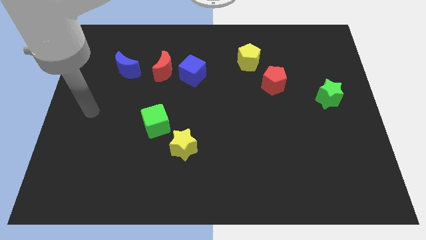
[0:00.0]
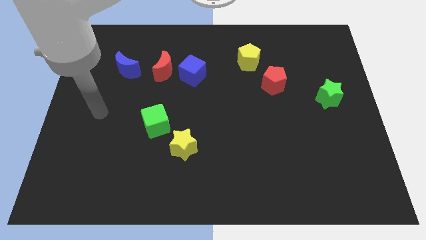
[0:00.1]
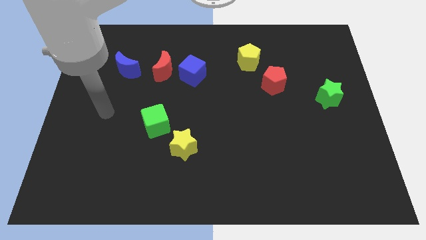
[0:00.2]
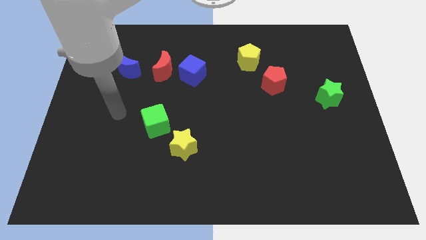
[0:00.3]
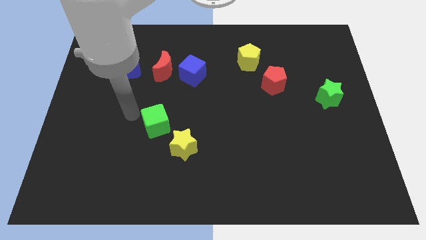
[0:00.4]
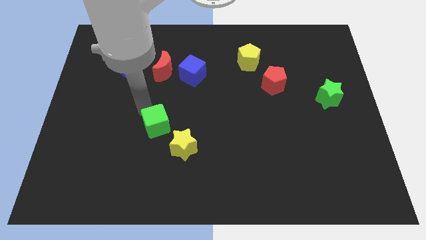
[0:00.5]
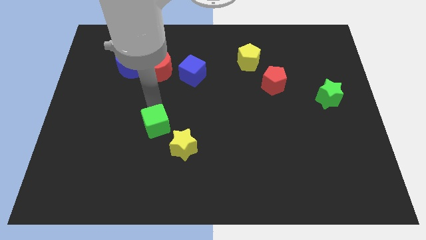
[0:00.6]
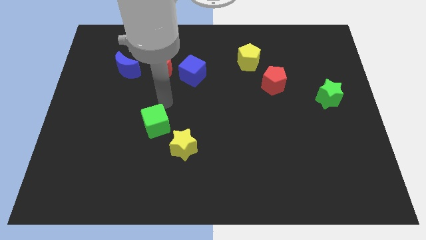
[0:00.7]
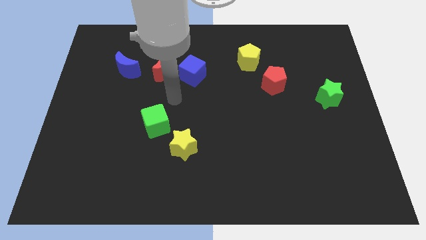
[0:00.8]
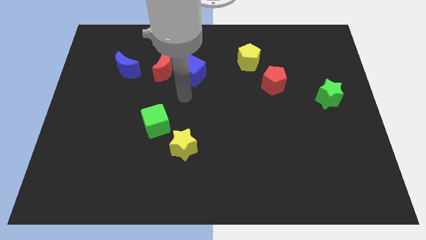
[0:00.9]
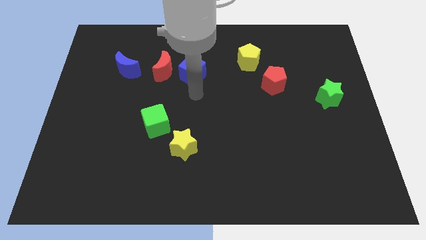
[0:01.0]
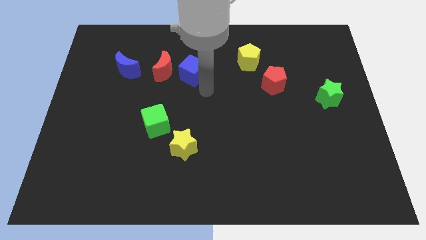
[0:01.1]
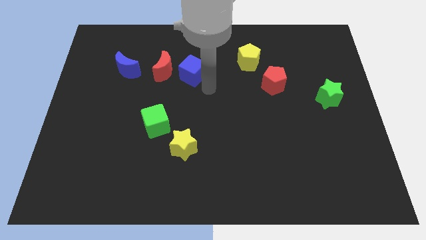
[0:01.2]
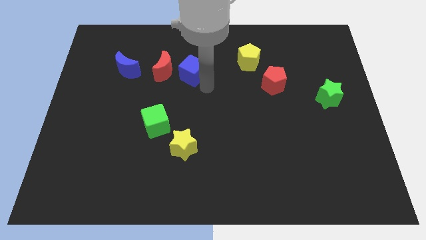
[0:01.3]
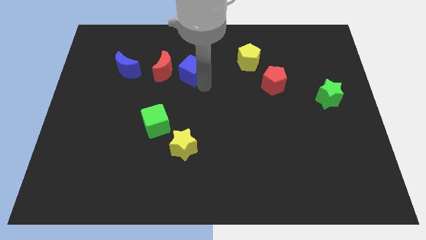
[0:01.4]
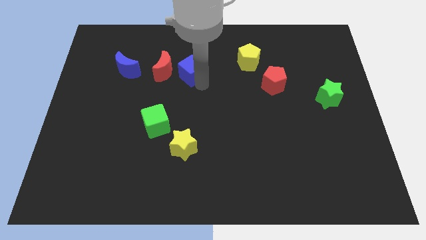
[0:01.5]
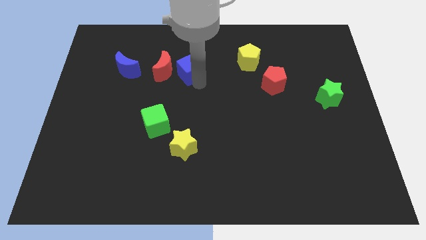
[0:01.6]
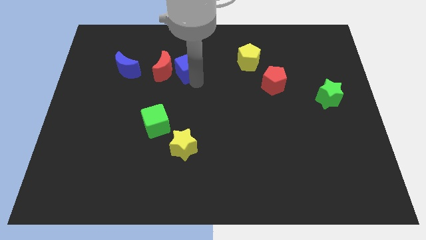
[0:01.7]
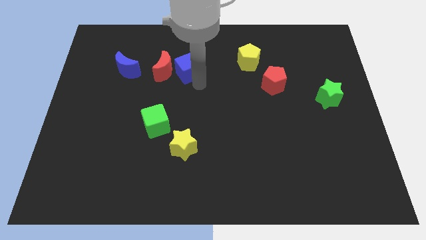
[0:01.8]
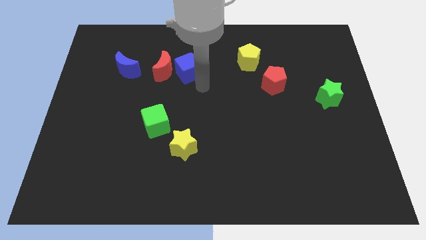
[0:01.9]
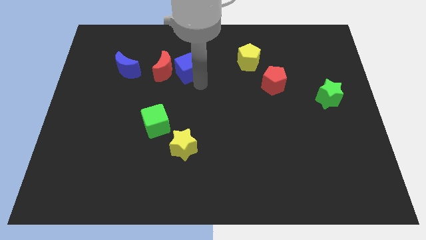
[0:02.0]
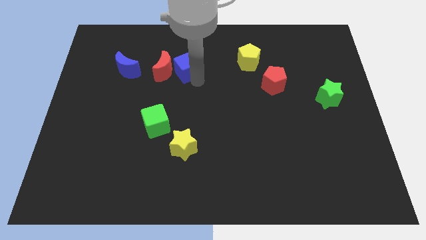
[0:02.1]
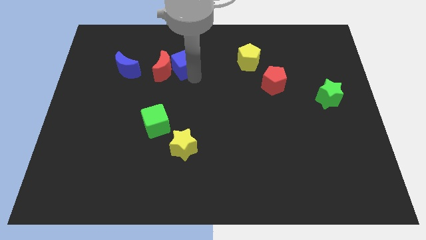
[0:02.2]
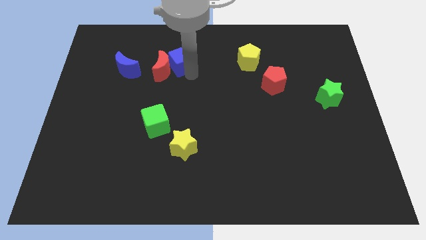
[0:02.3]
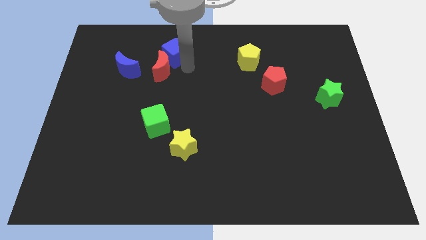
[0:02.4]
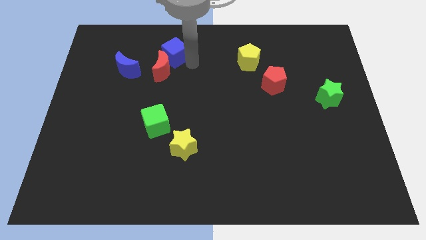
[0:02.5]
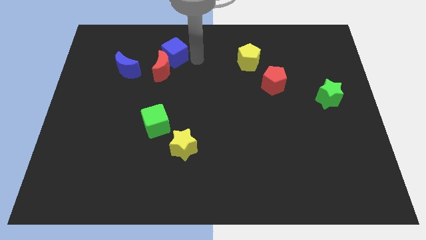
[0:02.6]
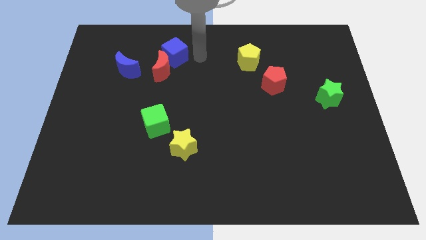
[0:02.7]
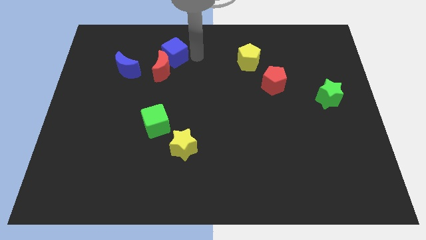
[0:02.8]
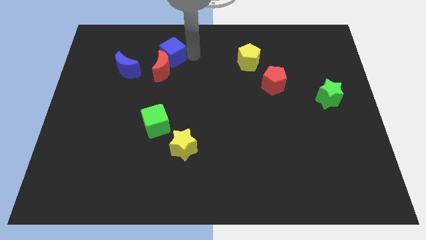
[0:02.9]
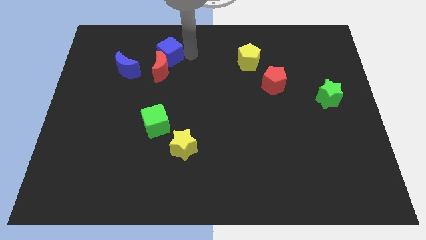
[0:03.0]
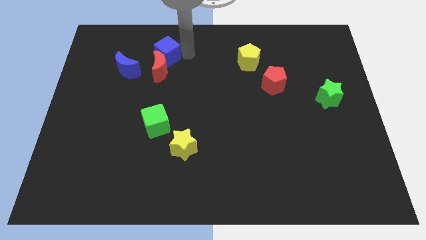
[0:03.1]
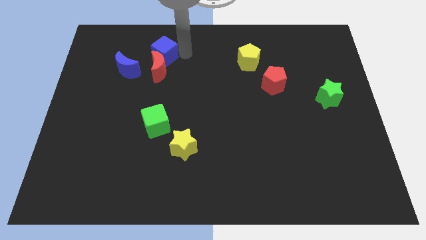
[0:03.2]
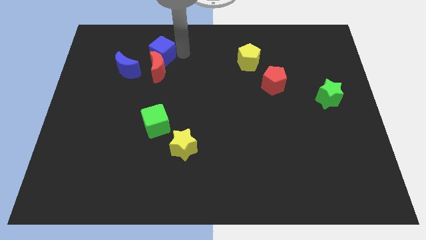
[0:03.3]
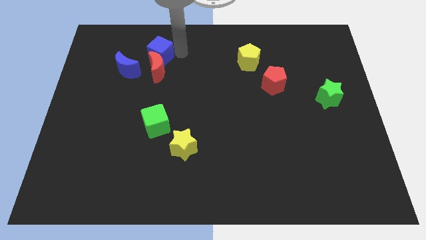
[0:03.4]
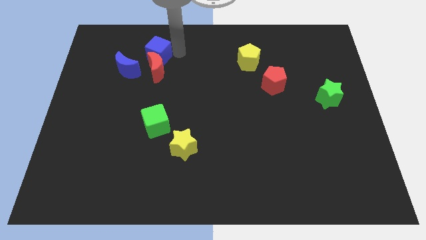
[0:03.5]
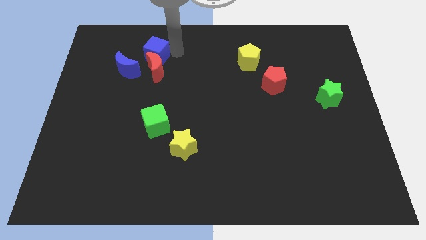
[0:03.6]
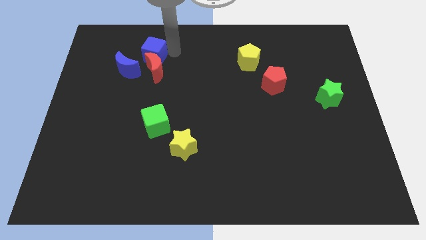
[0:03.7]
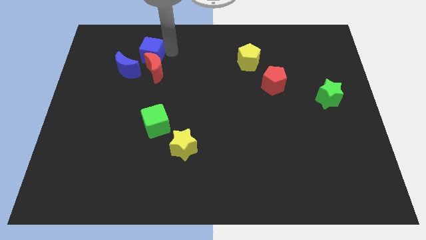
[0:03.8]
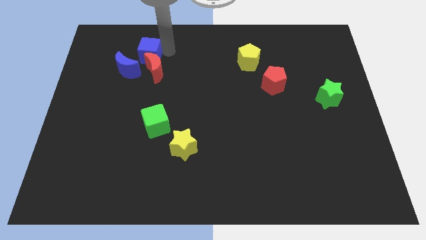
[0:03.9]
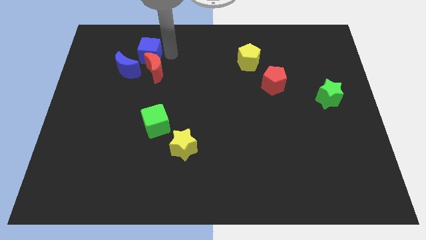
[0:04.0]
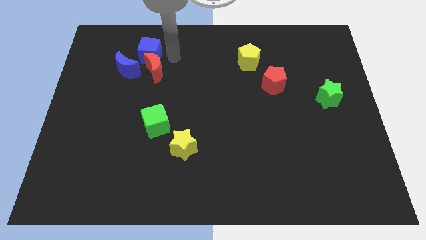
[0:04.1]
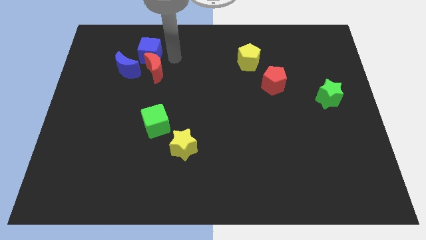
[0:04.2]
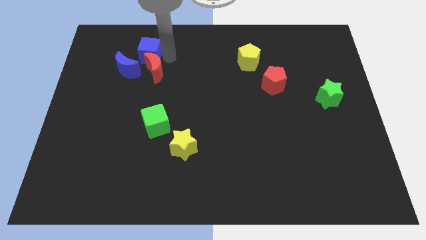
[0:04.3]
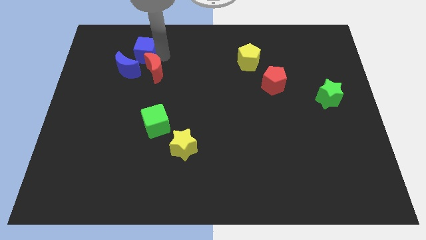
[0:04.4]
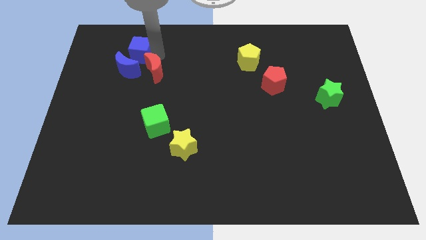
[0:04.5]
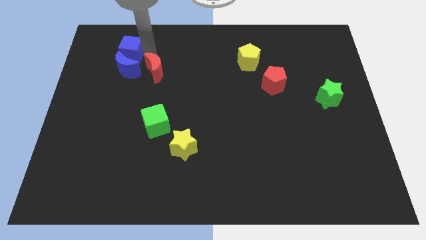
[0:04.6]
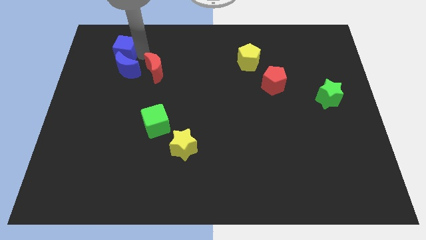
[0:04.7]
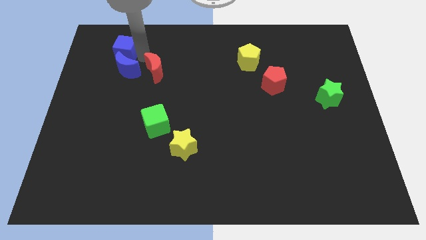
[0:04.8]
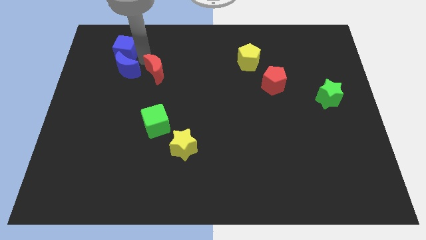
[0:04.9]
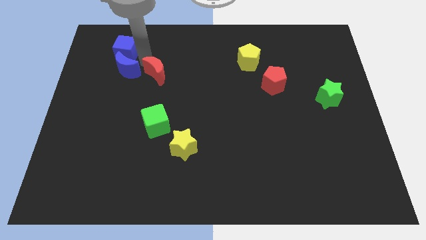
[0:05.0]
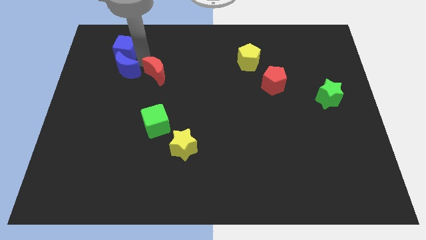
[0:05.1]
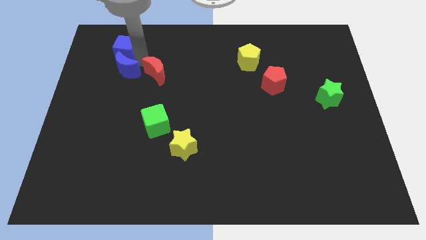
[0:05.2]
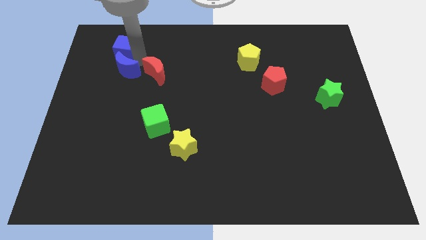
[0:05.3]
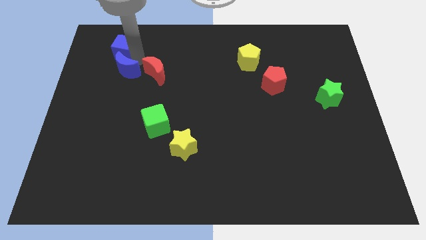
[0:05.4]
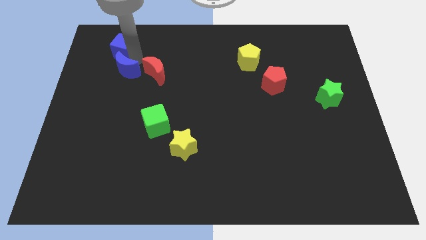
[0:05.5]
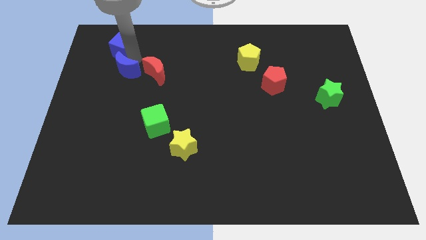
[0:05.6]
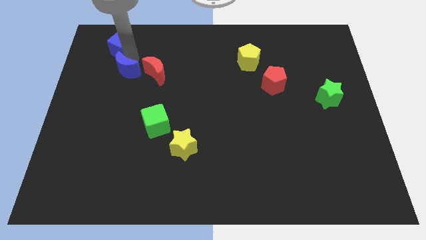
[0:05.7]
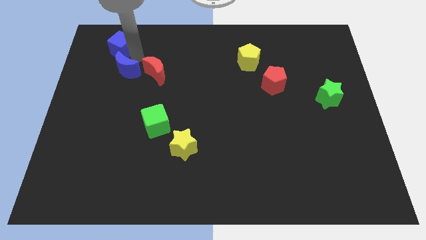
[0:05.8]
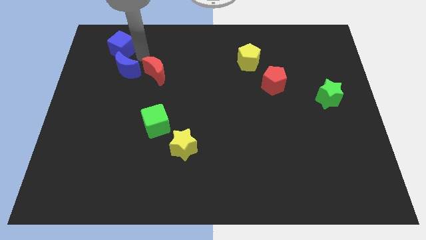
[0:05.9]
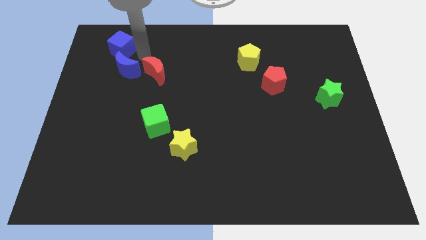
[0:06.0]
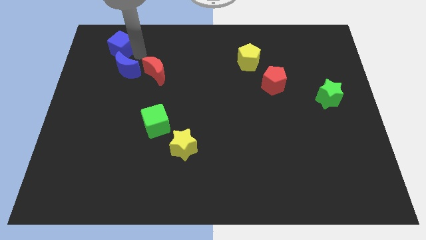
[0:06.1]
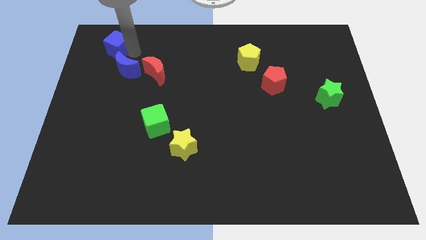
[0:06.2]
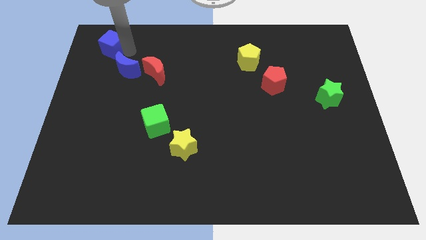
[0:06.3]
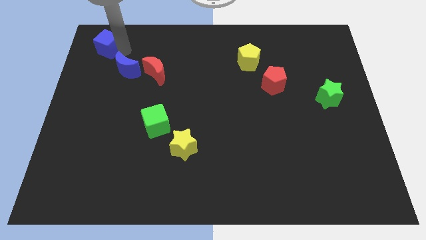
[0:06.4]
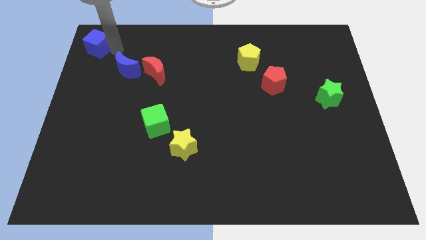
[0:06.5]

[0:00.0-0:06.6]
put the blue cube to the top left of the board
